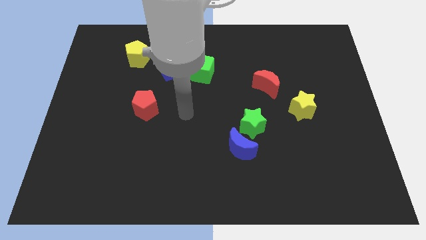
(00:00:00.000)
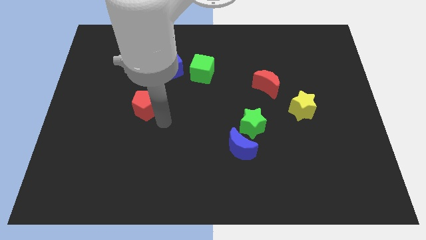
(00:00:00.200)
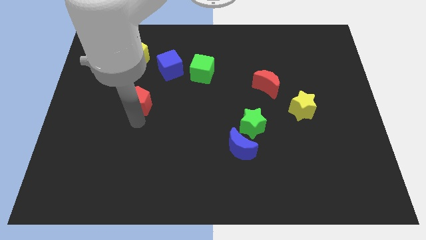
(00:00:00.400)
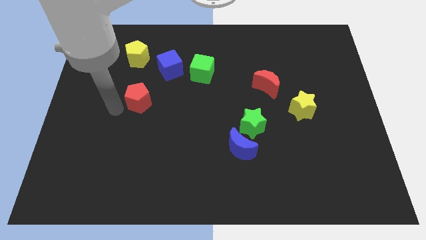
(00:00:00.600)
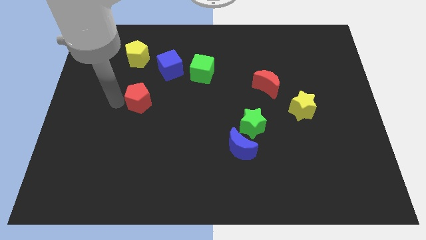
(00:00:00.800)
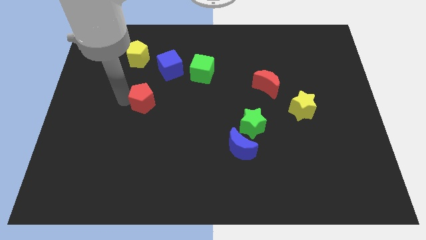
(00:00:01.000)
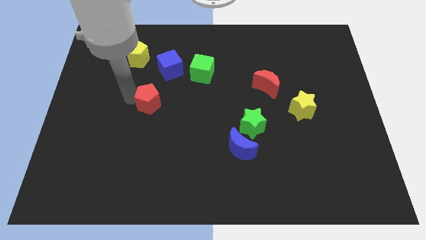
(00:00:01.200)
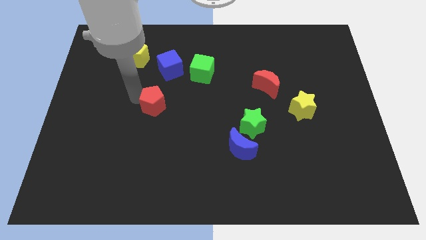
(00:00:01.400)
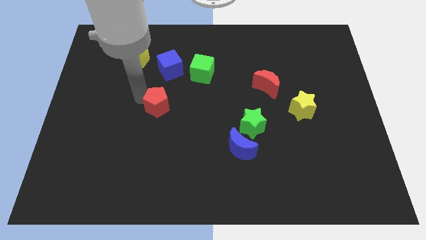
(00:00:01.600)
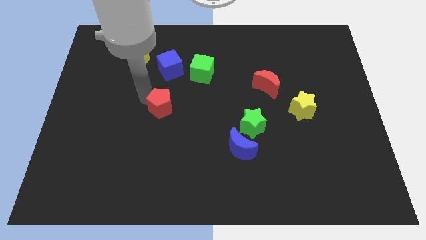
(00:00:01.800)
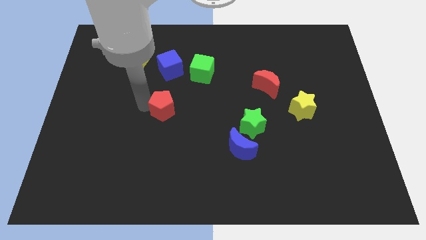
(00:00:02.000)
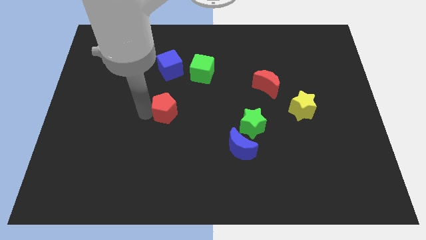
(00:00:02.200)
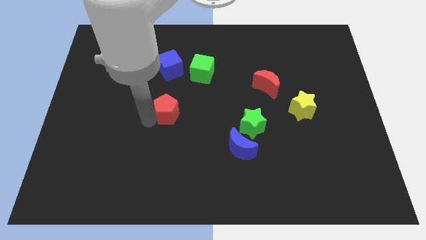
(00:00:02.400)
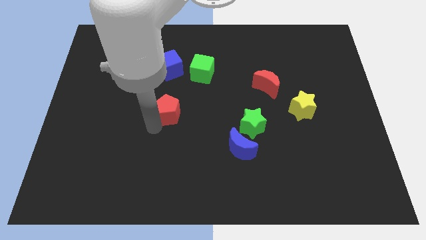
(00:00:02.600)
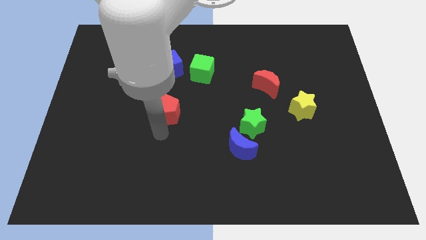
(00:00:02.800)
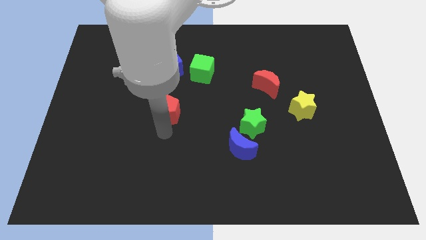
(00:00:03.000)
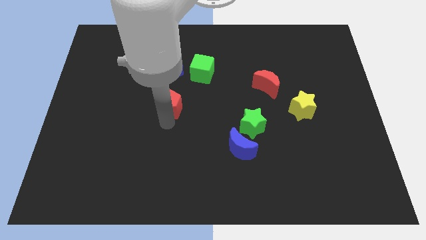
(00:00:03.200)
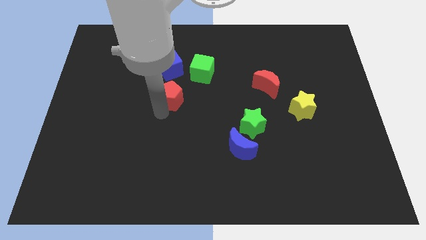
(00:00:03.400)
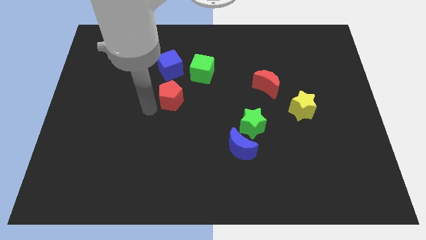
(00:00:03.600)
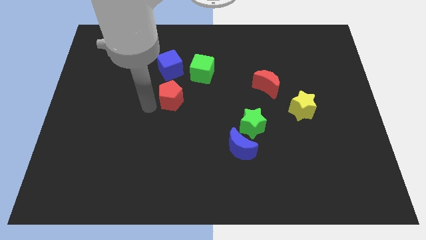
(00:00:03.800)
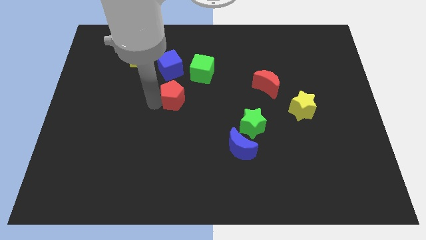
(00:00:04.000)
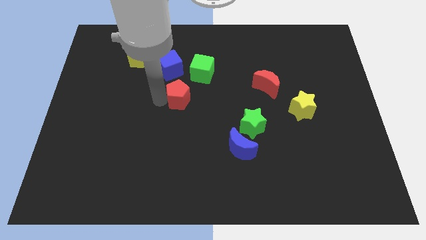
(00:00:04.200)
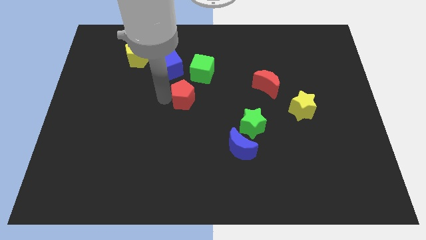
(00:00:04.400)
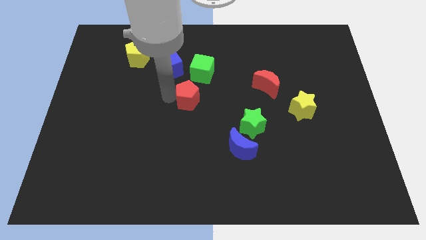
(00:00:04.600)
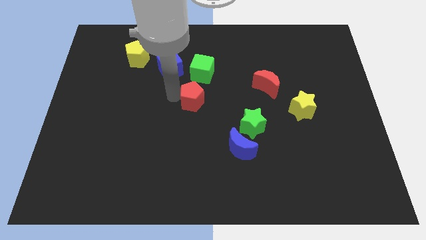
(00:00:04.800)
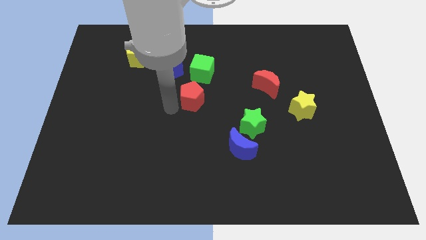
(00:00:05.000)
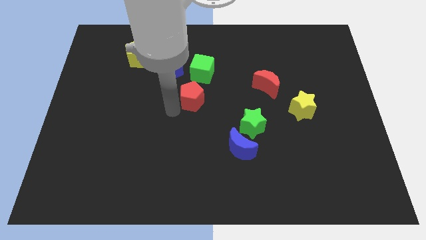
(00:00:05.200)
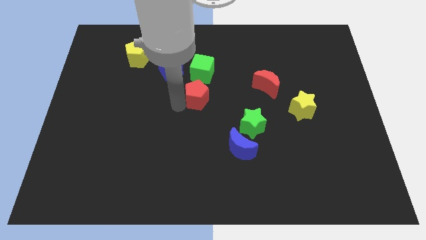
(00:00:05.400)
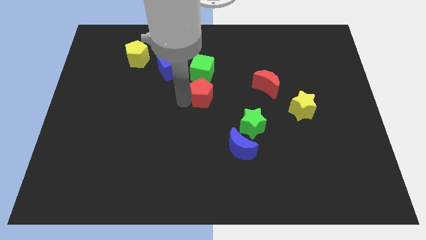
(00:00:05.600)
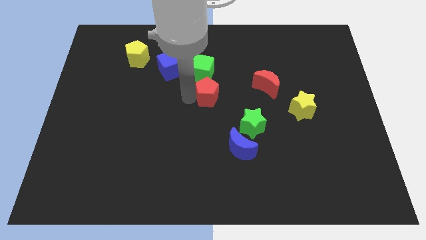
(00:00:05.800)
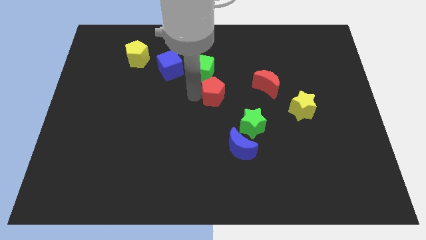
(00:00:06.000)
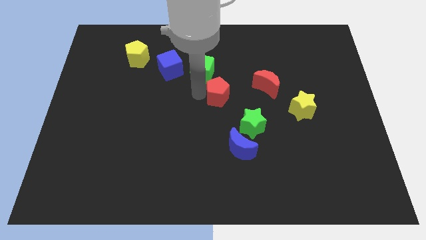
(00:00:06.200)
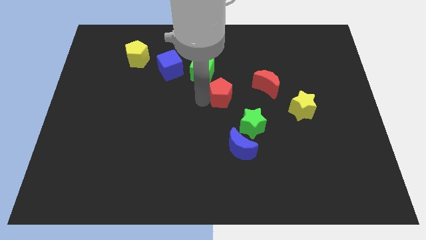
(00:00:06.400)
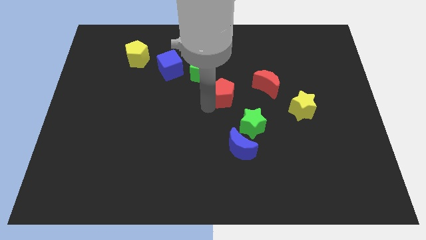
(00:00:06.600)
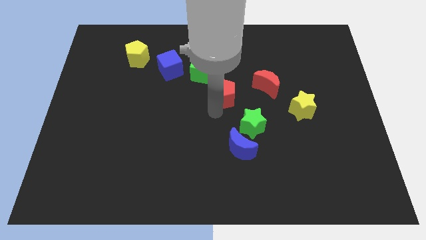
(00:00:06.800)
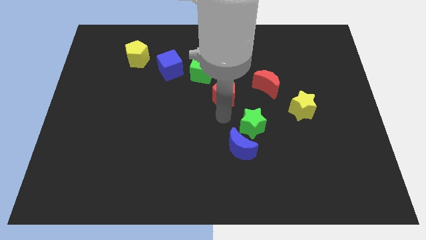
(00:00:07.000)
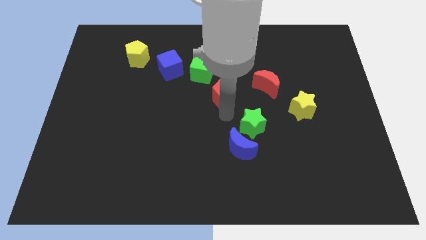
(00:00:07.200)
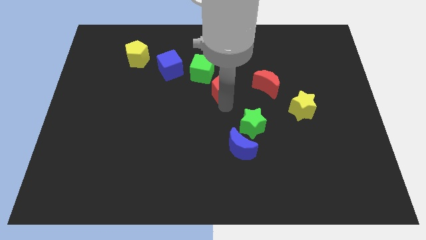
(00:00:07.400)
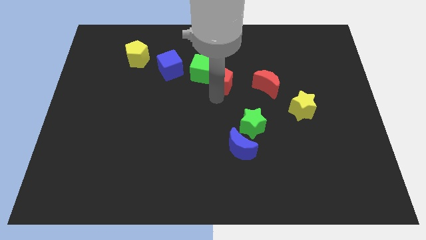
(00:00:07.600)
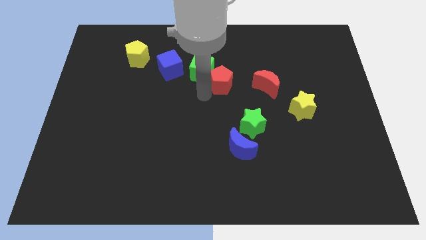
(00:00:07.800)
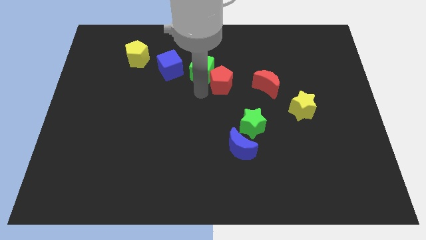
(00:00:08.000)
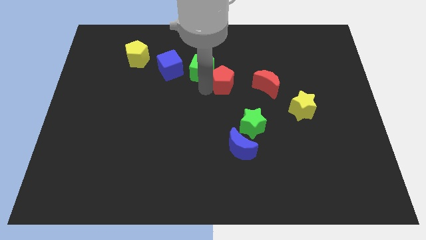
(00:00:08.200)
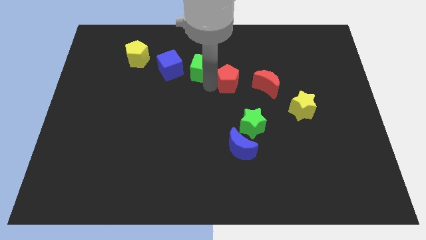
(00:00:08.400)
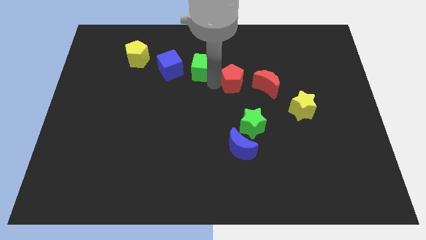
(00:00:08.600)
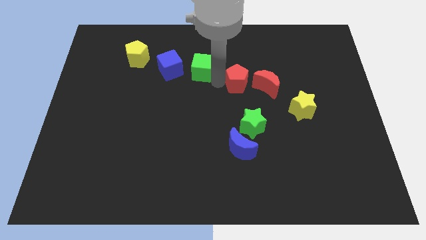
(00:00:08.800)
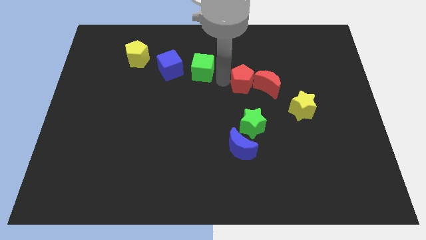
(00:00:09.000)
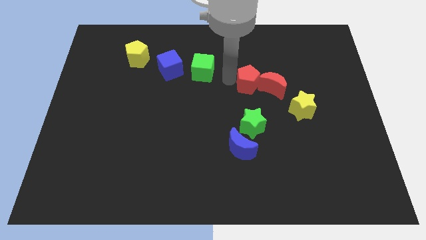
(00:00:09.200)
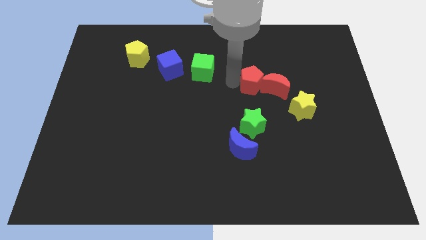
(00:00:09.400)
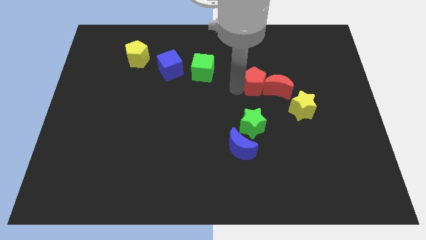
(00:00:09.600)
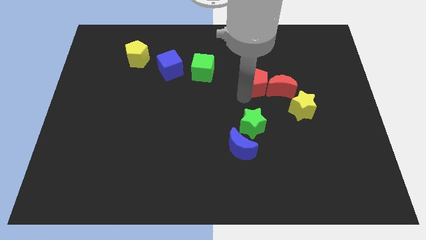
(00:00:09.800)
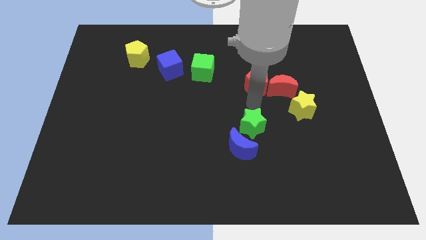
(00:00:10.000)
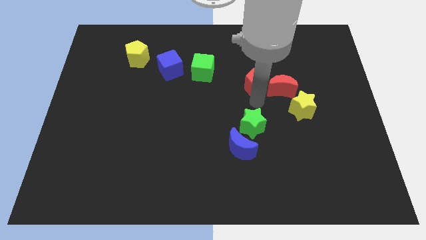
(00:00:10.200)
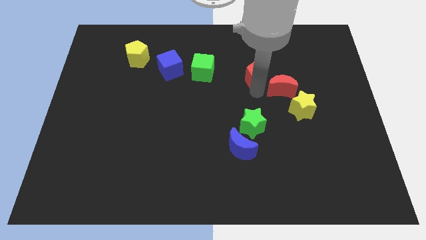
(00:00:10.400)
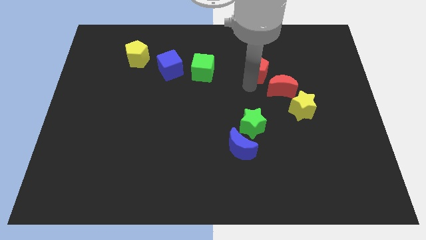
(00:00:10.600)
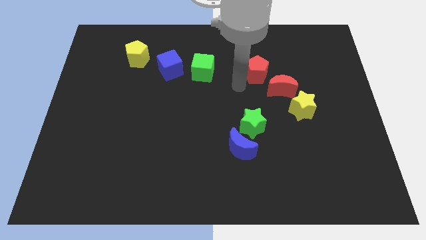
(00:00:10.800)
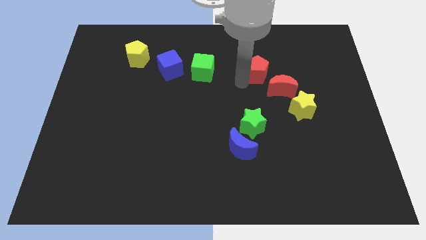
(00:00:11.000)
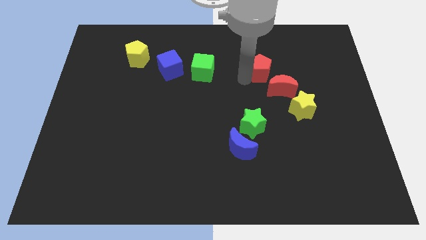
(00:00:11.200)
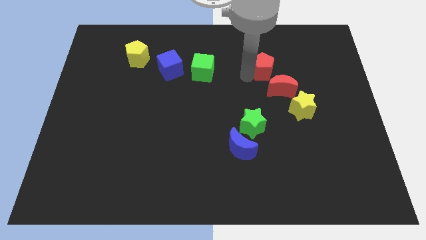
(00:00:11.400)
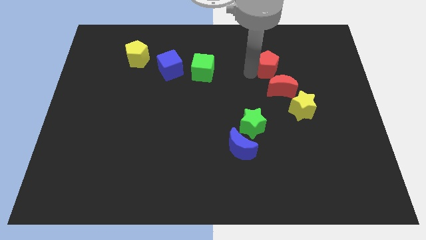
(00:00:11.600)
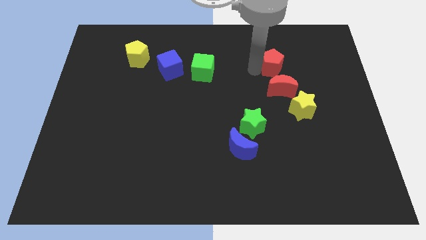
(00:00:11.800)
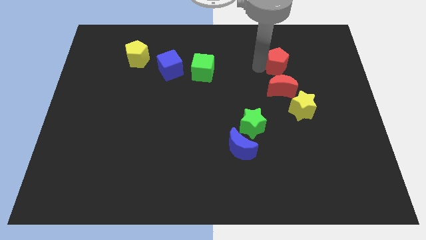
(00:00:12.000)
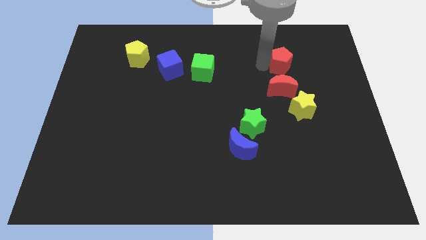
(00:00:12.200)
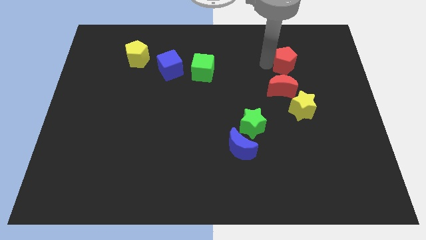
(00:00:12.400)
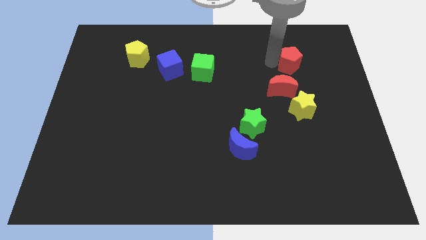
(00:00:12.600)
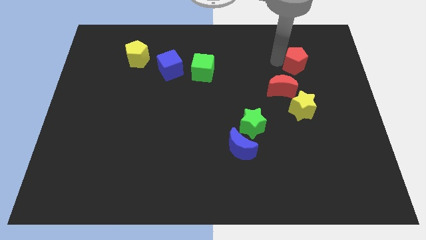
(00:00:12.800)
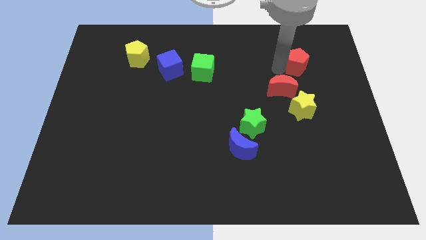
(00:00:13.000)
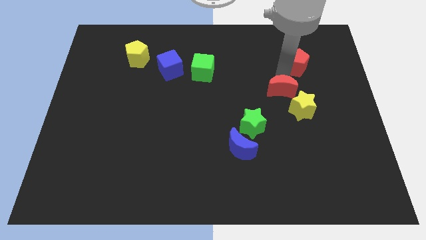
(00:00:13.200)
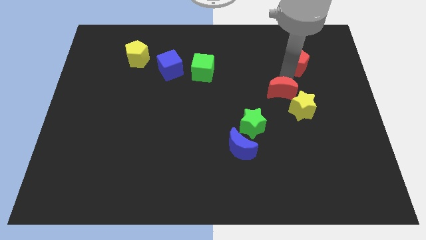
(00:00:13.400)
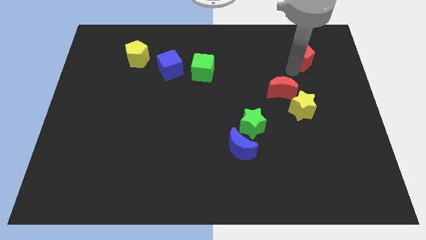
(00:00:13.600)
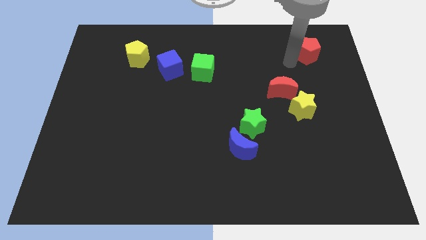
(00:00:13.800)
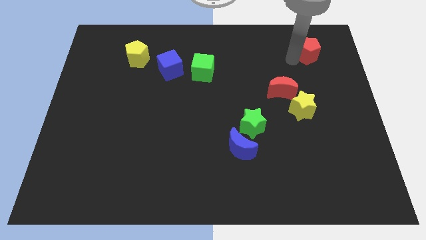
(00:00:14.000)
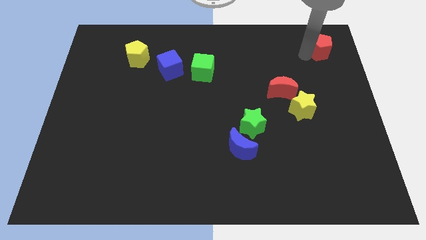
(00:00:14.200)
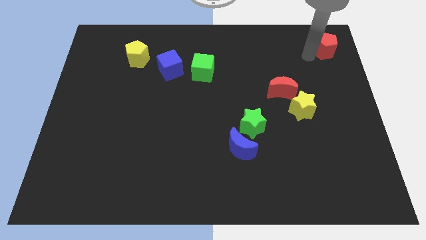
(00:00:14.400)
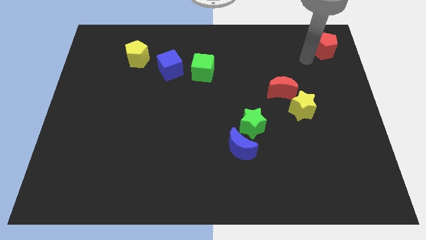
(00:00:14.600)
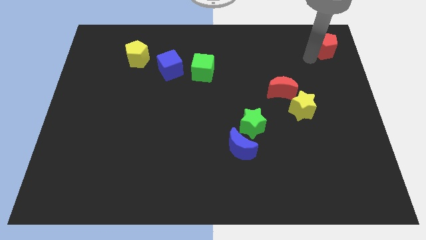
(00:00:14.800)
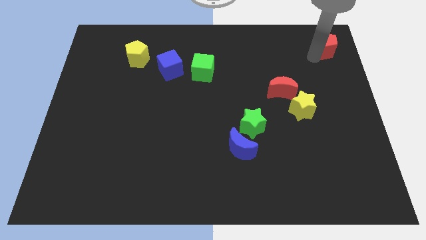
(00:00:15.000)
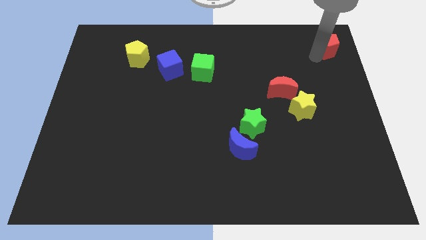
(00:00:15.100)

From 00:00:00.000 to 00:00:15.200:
push the red pentagon to the top right of the board
